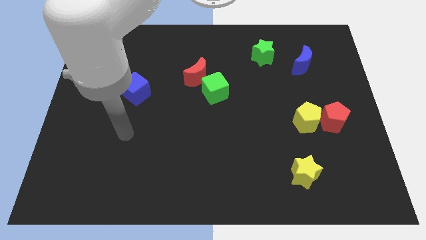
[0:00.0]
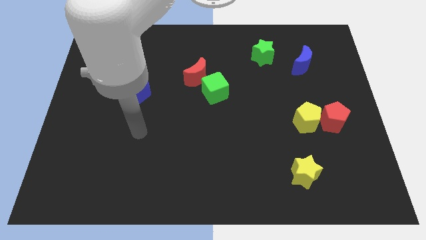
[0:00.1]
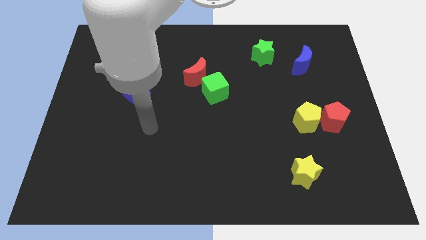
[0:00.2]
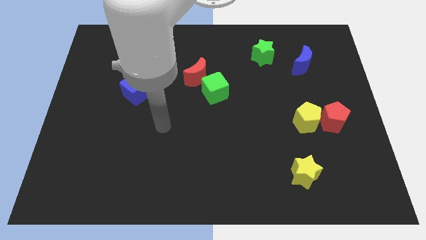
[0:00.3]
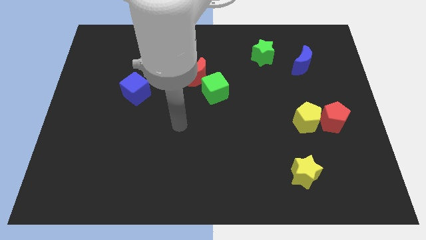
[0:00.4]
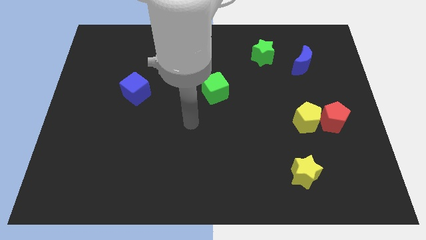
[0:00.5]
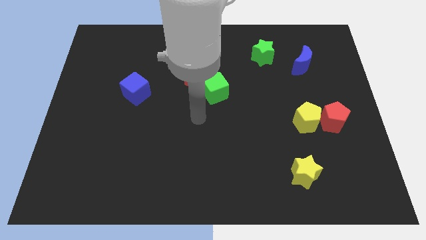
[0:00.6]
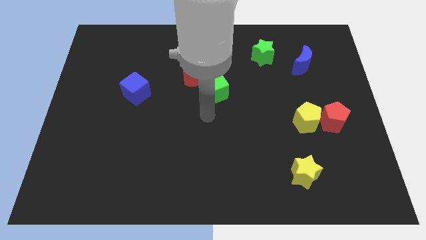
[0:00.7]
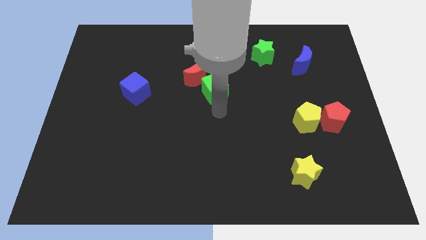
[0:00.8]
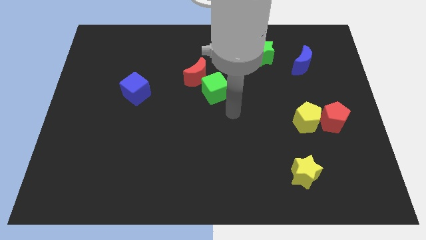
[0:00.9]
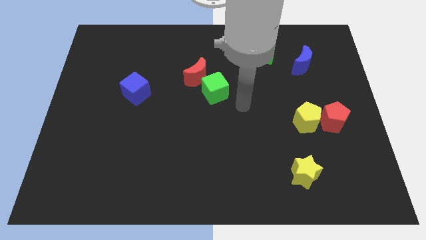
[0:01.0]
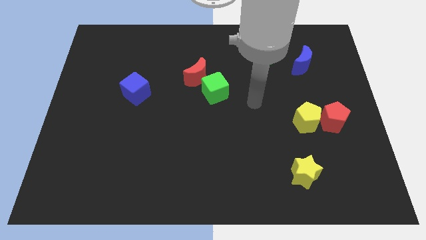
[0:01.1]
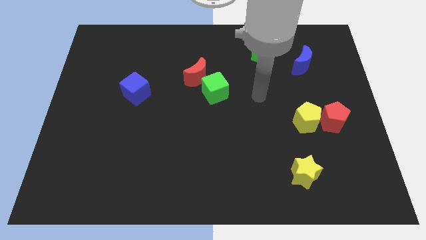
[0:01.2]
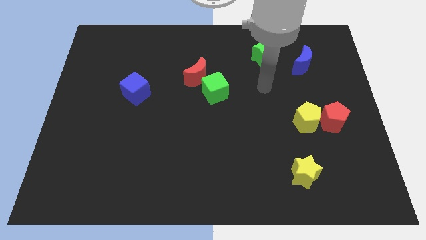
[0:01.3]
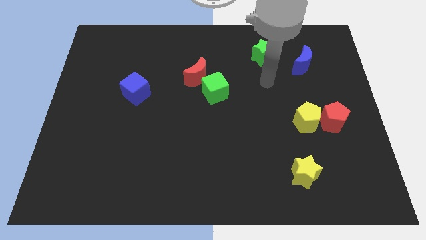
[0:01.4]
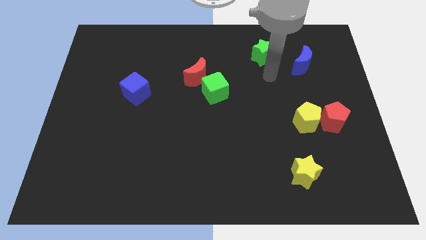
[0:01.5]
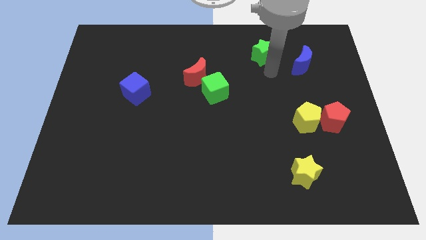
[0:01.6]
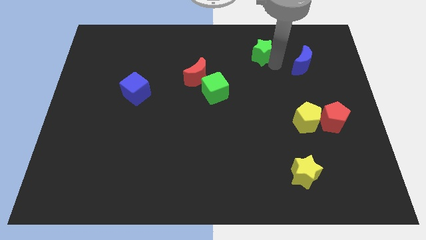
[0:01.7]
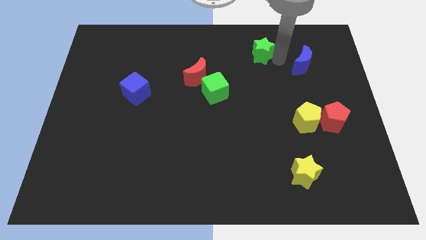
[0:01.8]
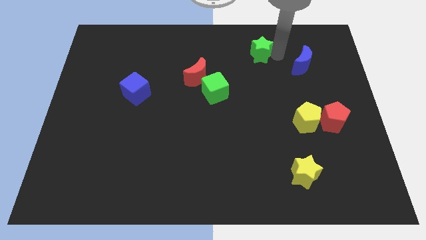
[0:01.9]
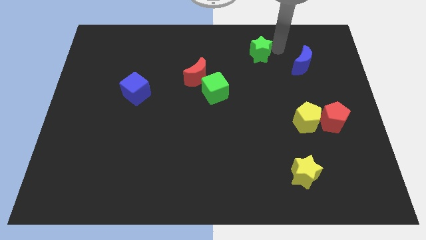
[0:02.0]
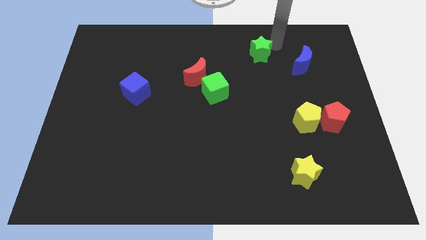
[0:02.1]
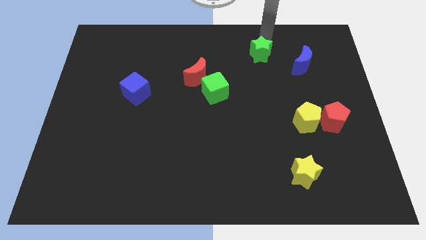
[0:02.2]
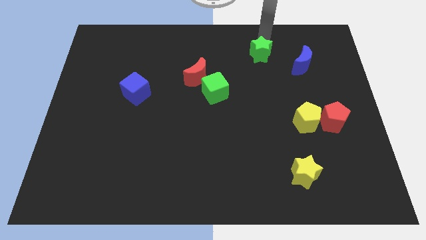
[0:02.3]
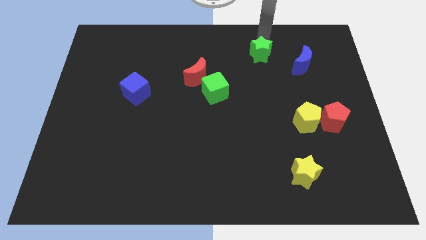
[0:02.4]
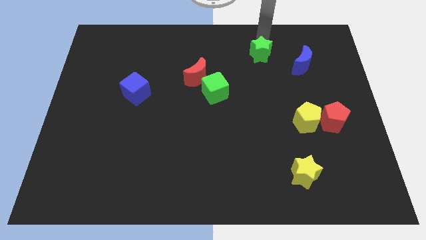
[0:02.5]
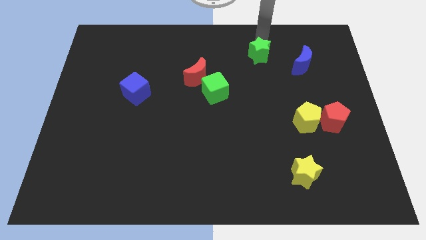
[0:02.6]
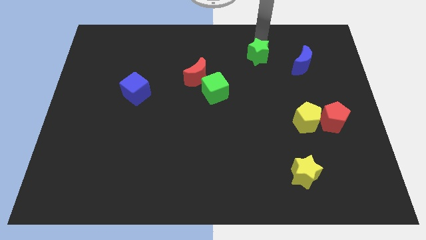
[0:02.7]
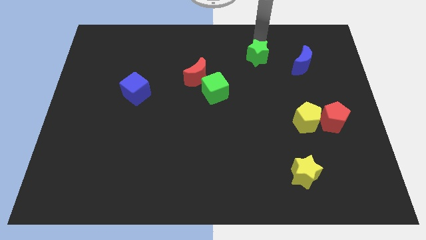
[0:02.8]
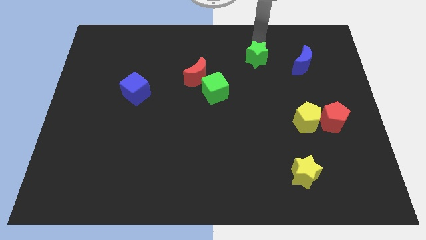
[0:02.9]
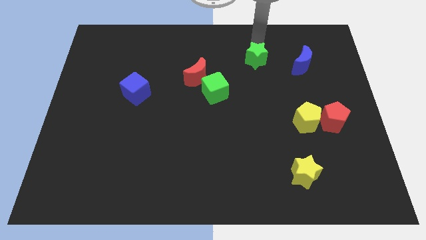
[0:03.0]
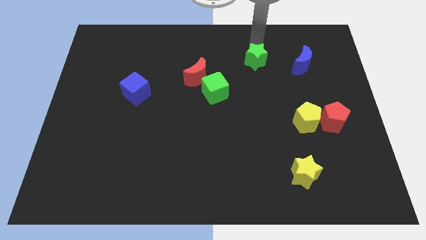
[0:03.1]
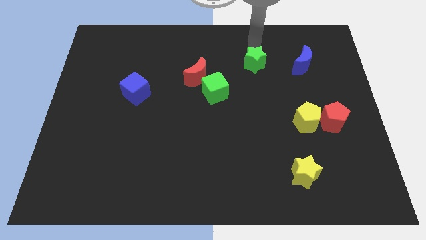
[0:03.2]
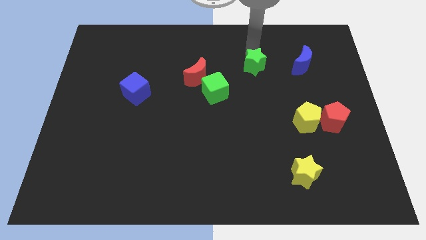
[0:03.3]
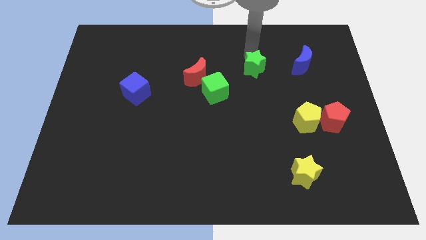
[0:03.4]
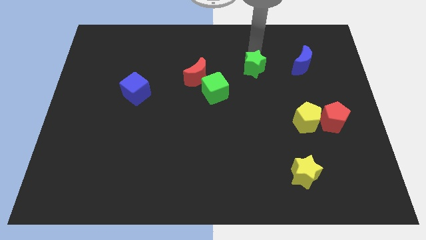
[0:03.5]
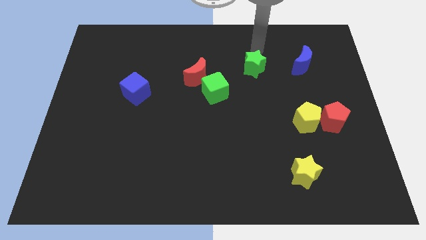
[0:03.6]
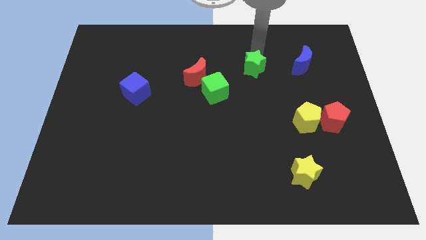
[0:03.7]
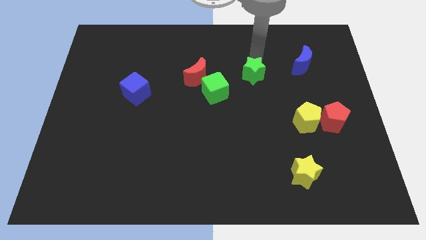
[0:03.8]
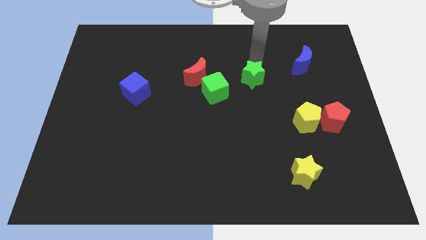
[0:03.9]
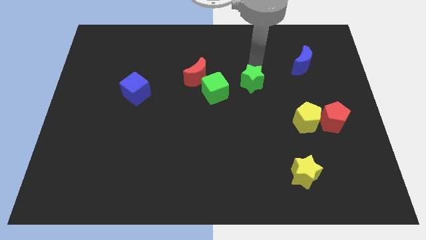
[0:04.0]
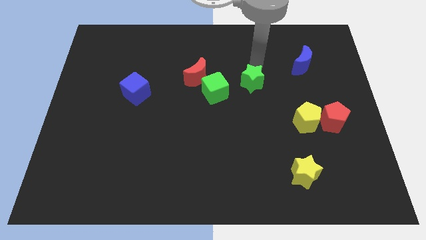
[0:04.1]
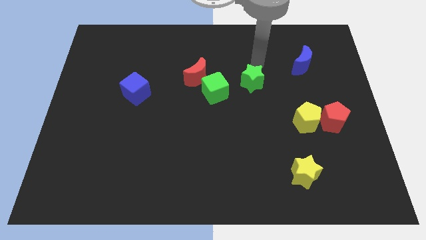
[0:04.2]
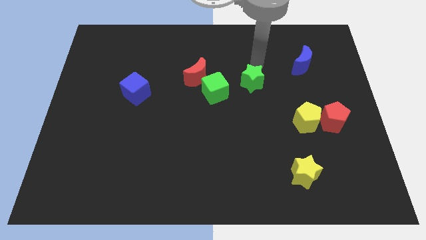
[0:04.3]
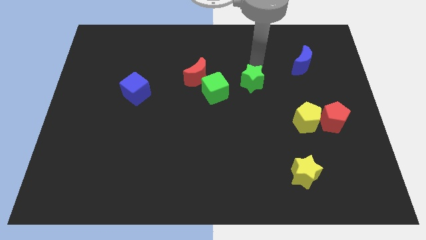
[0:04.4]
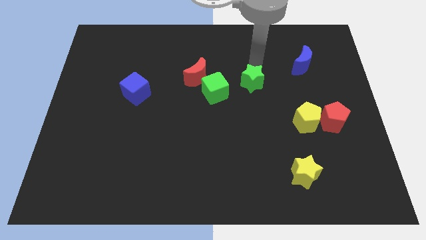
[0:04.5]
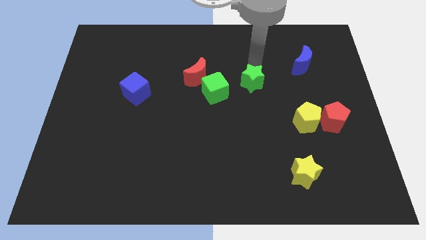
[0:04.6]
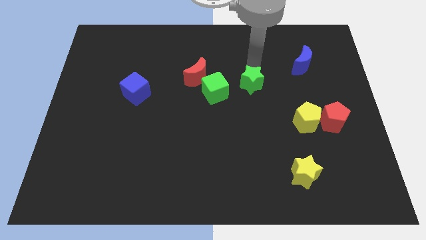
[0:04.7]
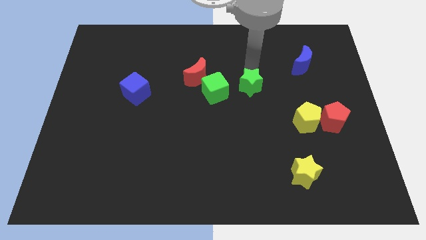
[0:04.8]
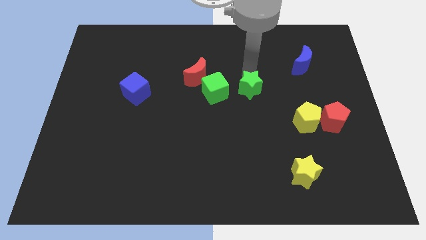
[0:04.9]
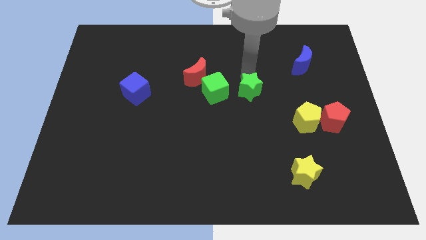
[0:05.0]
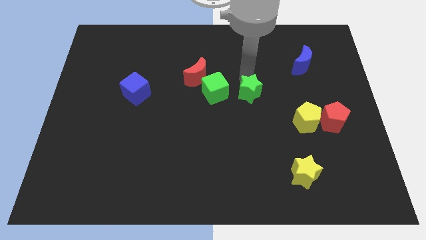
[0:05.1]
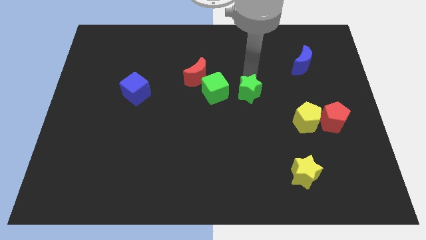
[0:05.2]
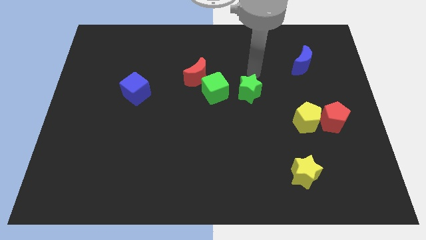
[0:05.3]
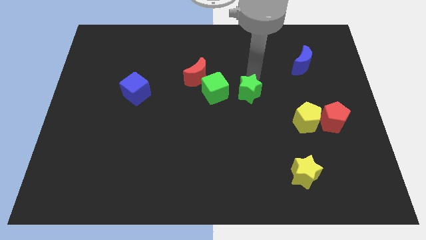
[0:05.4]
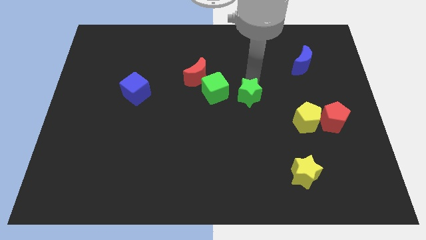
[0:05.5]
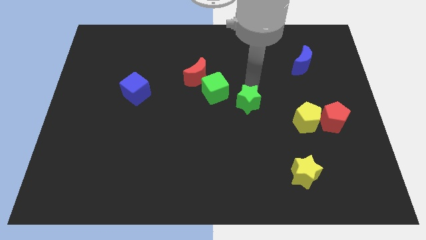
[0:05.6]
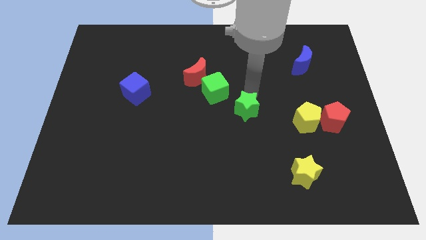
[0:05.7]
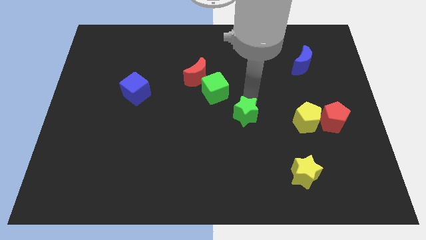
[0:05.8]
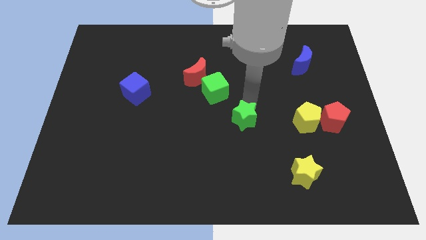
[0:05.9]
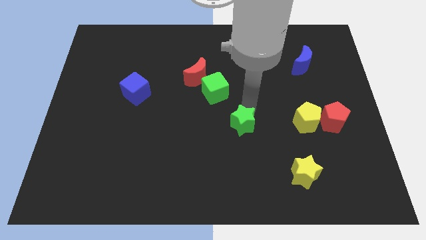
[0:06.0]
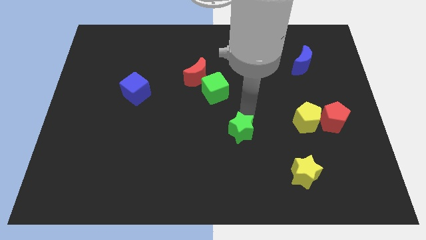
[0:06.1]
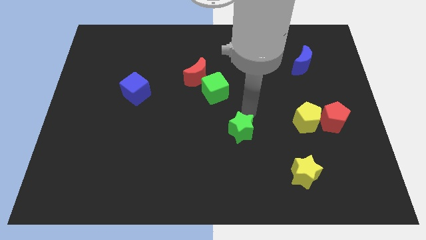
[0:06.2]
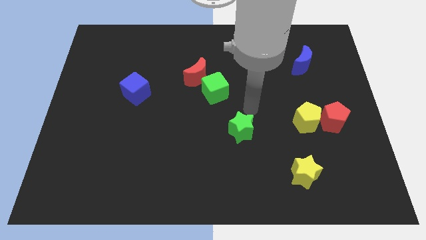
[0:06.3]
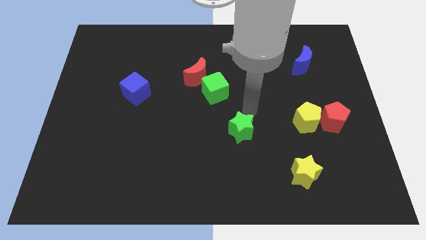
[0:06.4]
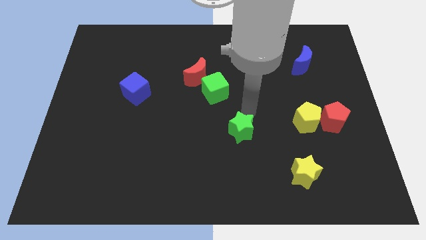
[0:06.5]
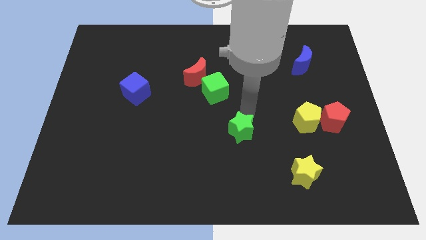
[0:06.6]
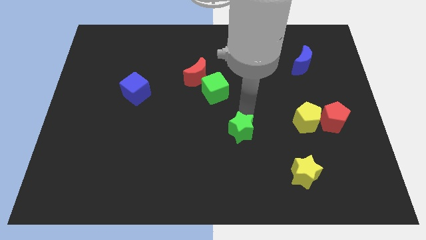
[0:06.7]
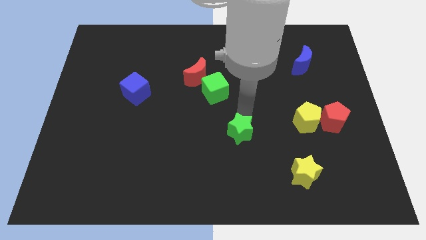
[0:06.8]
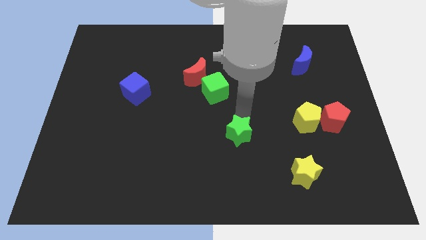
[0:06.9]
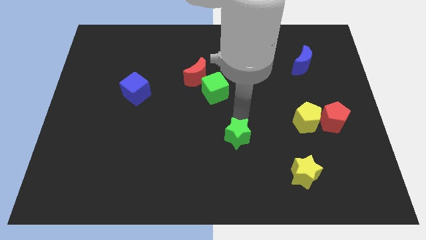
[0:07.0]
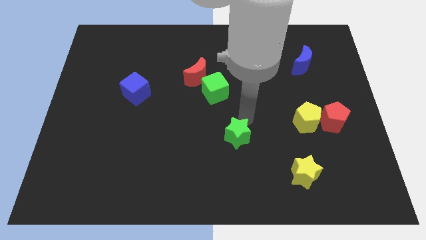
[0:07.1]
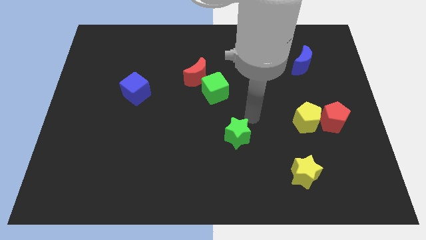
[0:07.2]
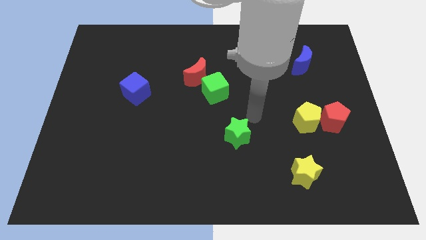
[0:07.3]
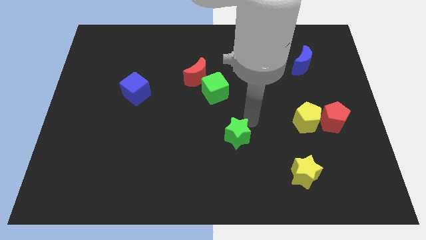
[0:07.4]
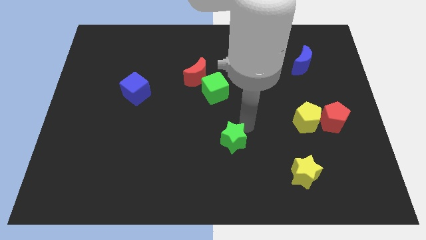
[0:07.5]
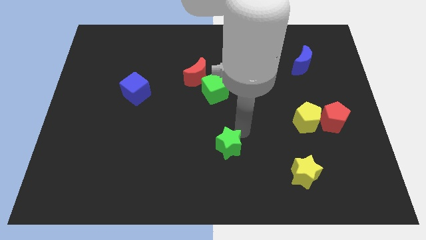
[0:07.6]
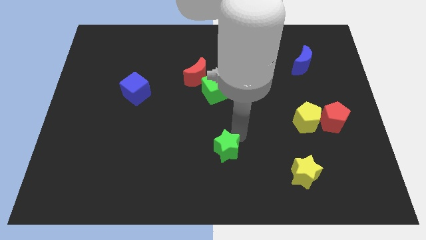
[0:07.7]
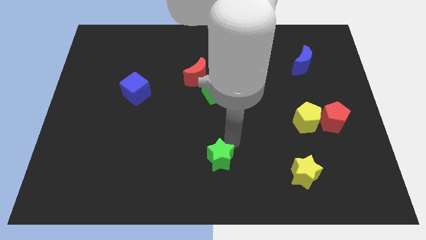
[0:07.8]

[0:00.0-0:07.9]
push the green star to the bottom
